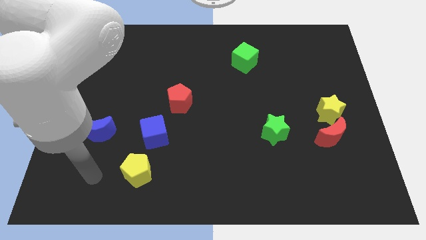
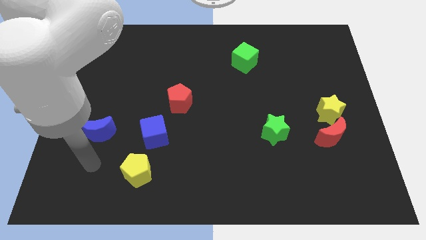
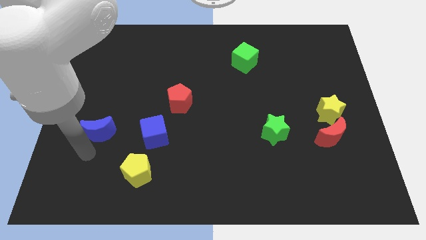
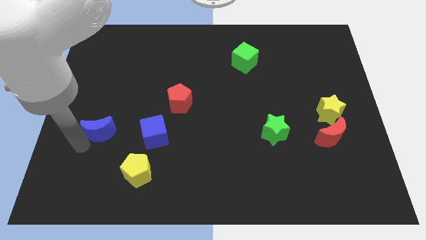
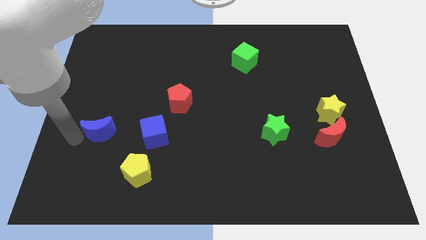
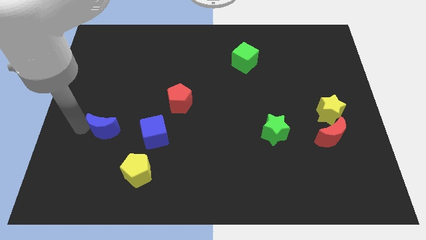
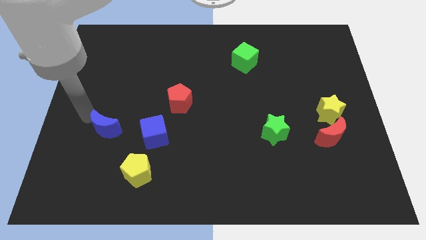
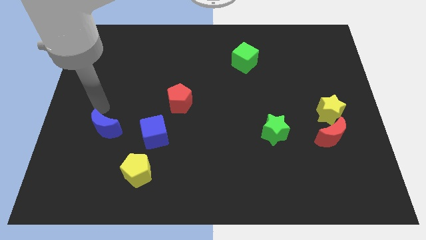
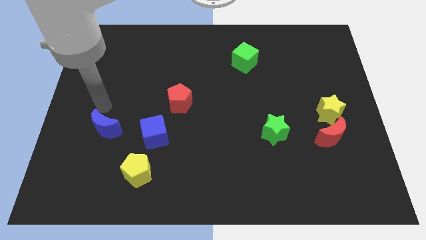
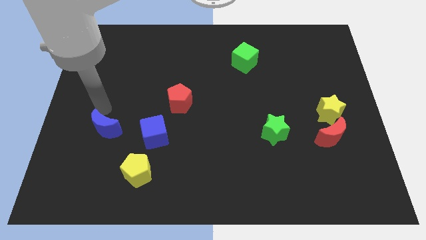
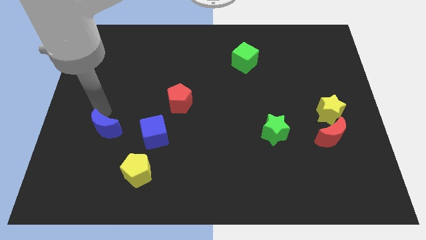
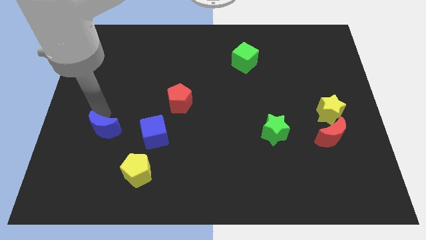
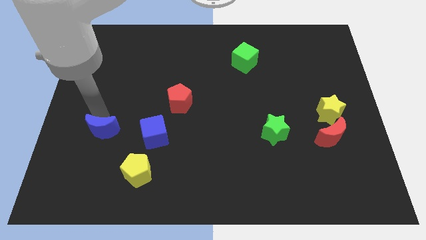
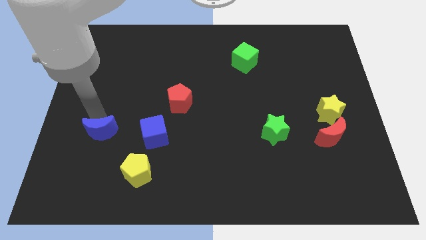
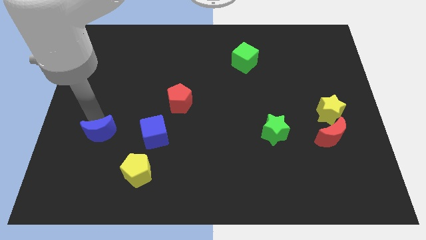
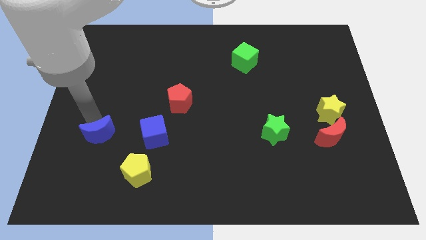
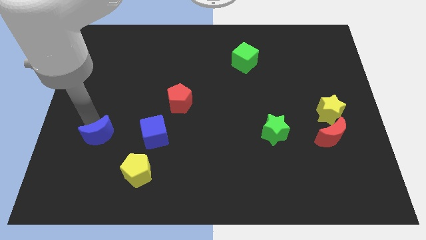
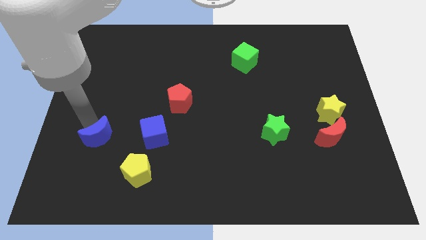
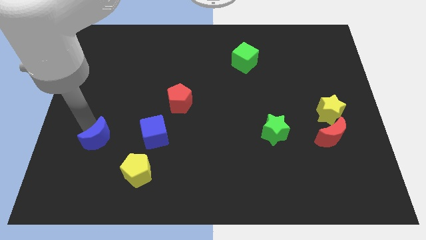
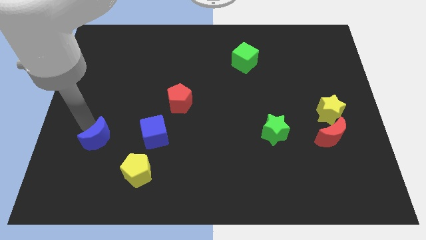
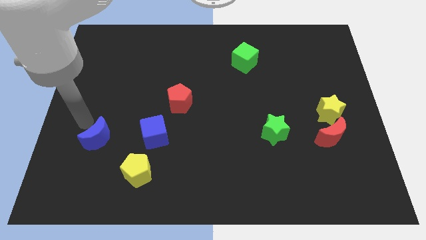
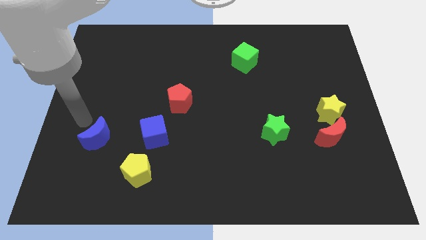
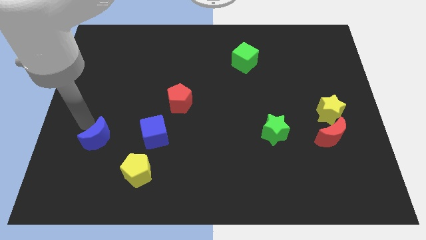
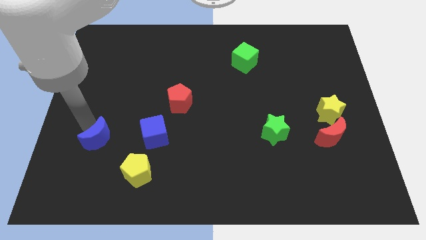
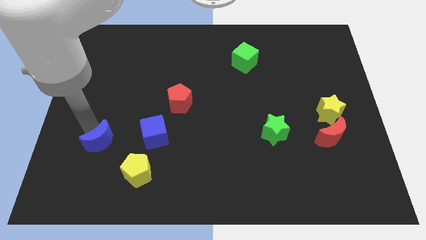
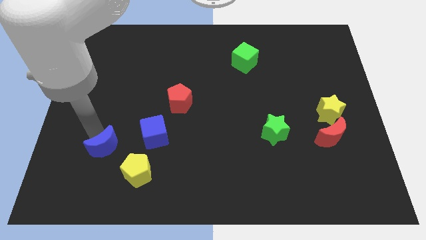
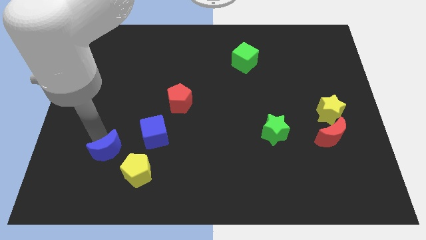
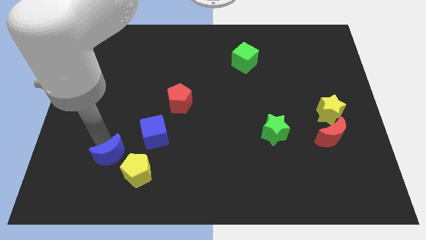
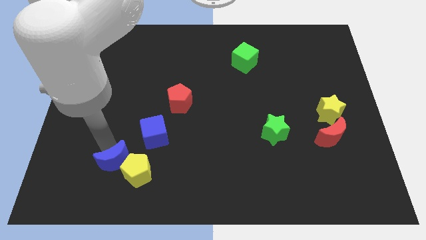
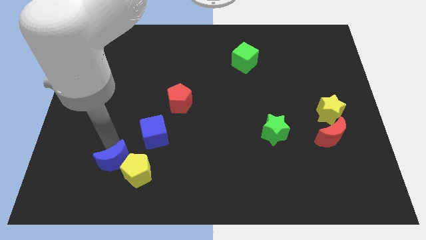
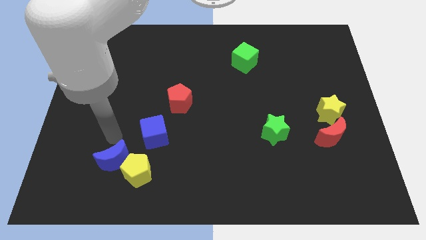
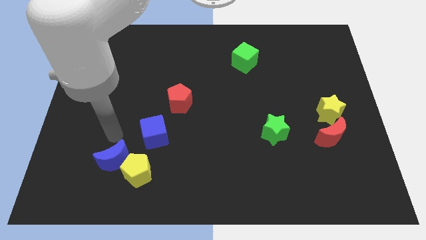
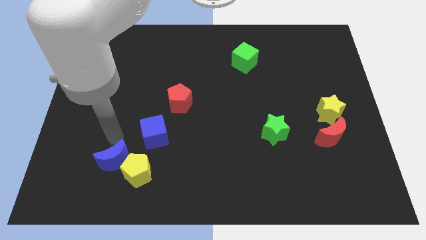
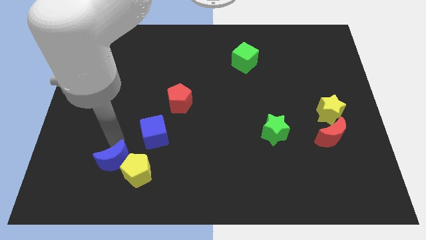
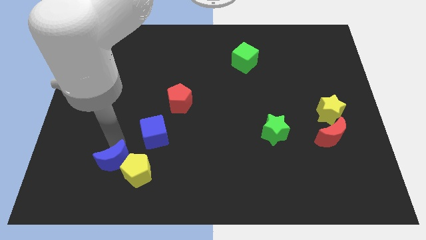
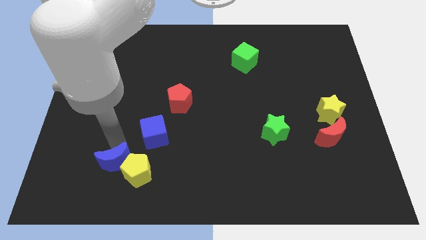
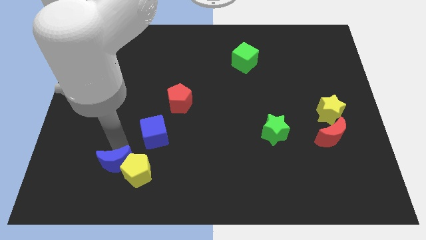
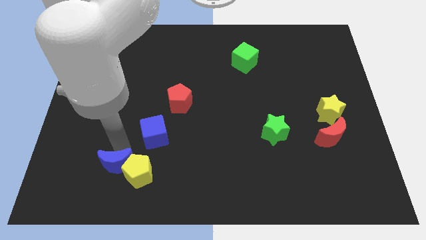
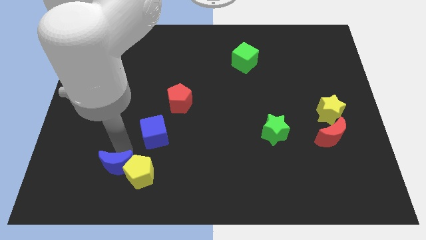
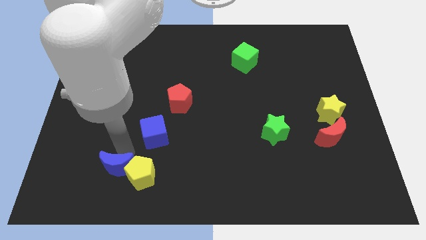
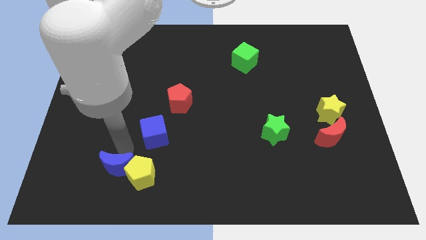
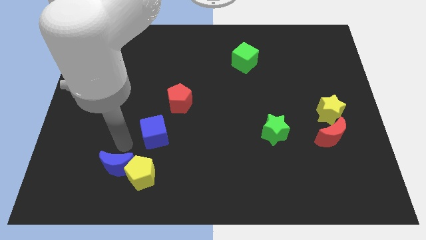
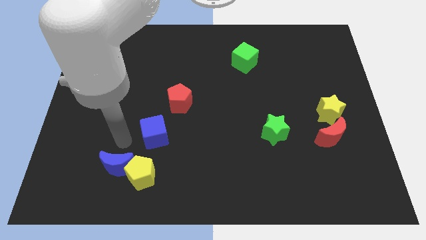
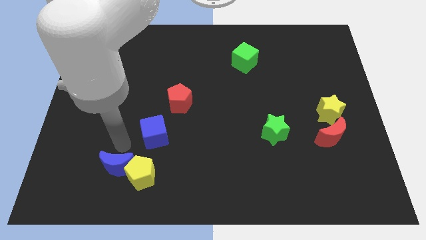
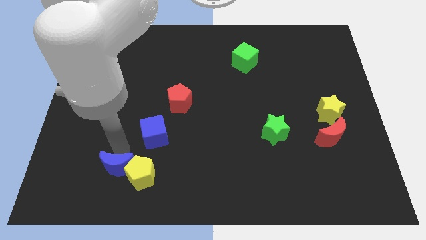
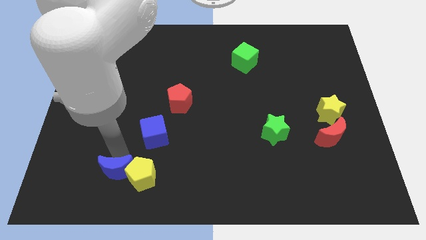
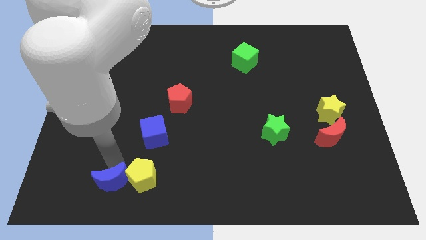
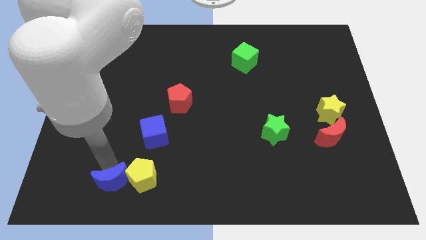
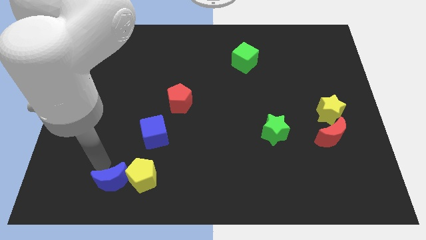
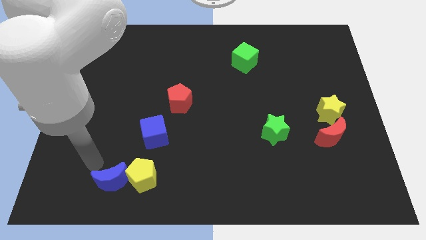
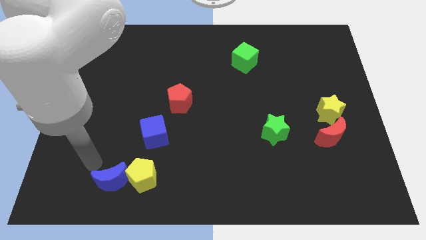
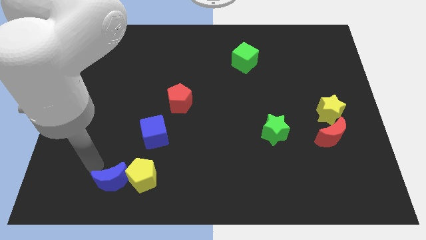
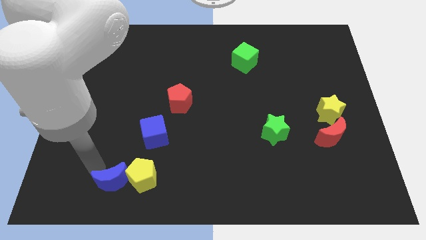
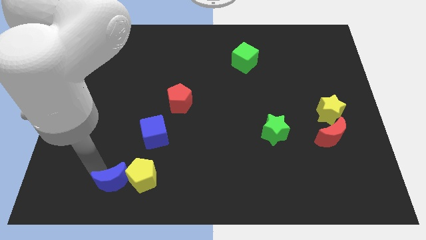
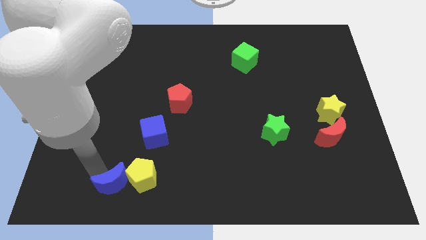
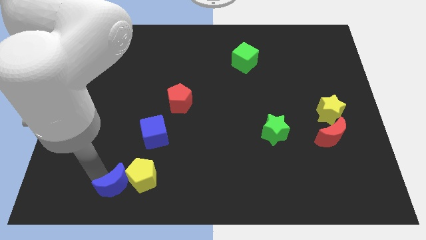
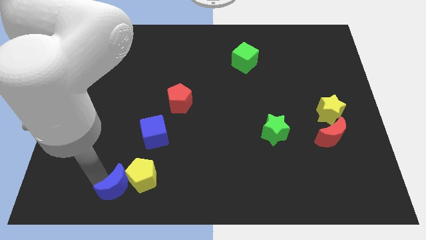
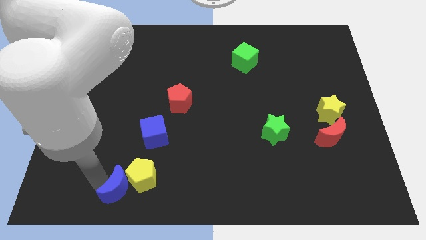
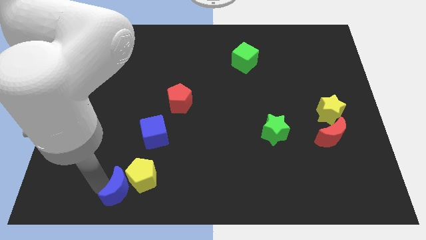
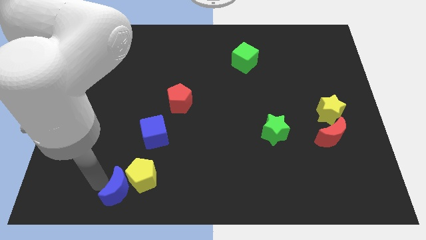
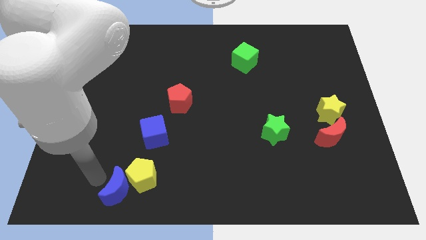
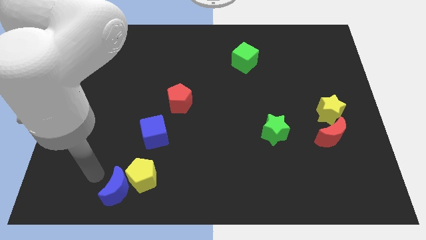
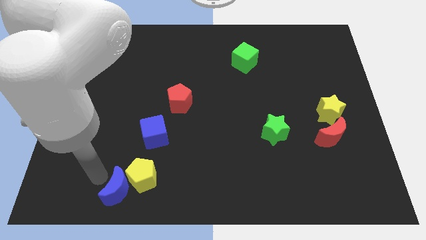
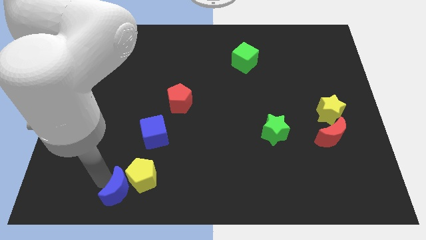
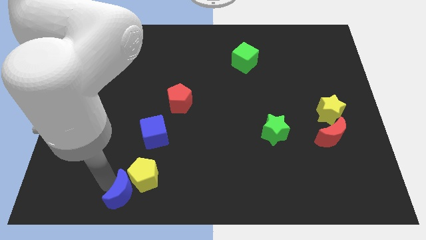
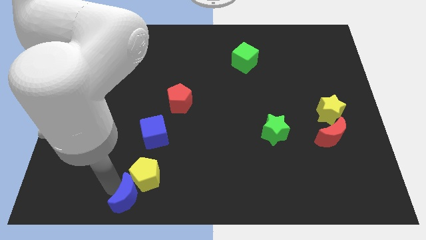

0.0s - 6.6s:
slide the blue moon to the bottom side of the blue cube
